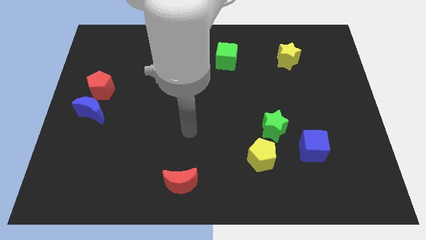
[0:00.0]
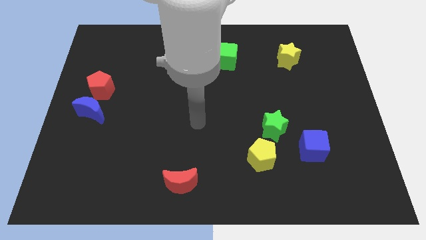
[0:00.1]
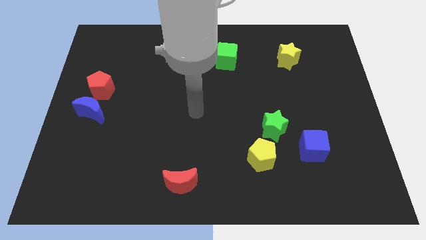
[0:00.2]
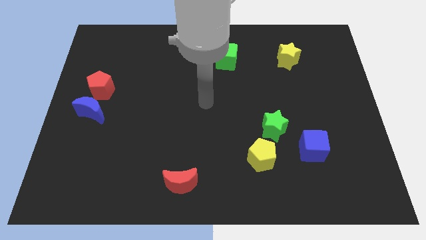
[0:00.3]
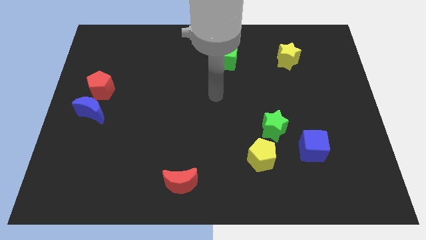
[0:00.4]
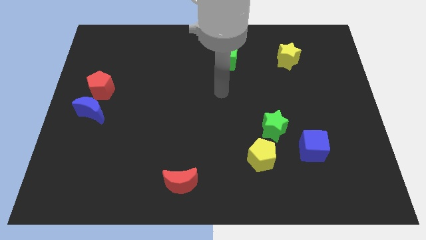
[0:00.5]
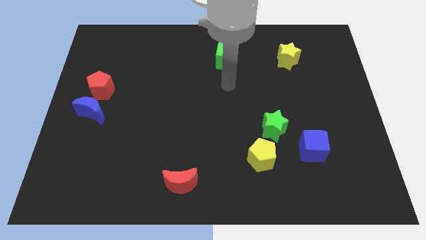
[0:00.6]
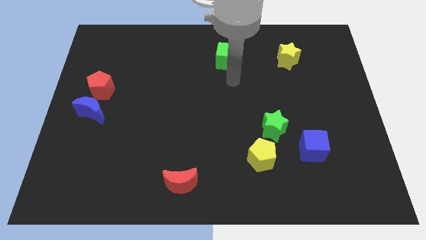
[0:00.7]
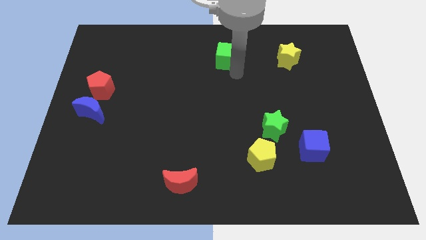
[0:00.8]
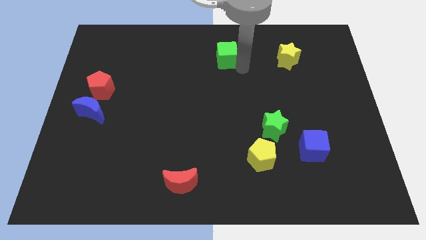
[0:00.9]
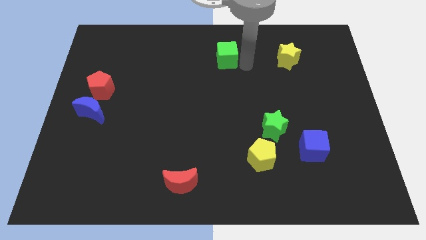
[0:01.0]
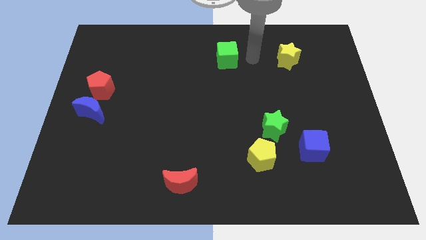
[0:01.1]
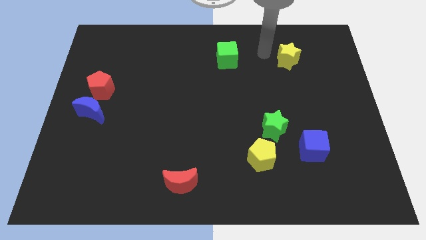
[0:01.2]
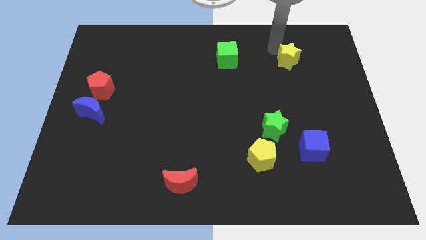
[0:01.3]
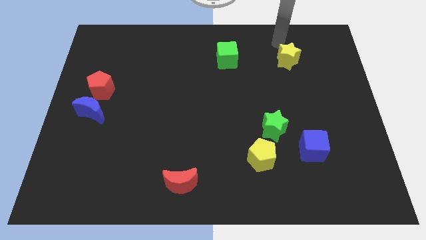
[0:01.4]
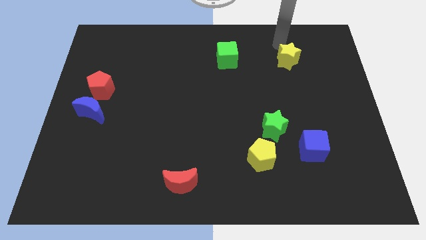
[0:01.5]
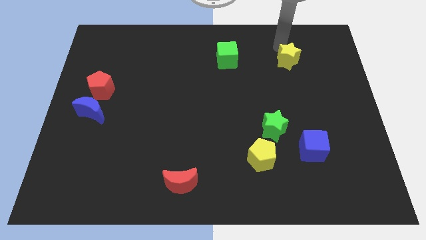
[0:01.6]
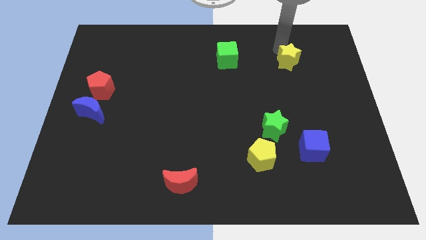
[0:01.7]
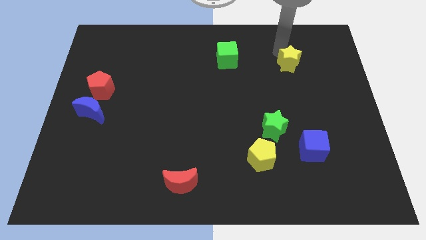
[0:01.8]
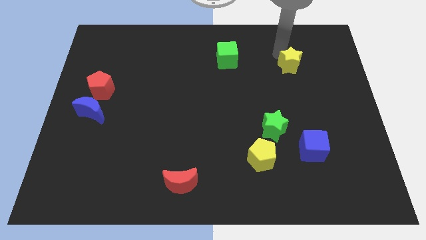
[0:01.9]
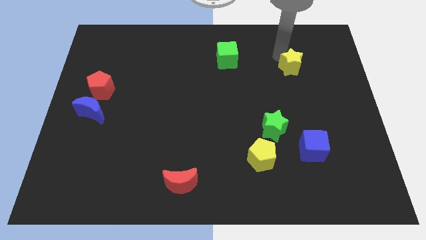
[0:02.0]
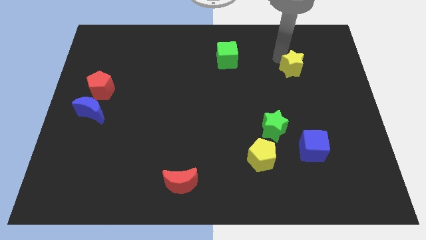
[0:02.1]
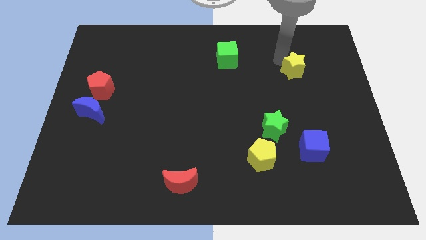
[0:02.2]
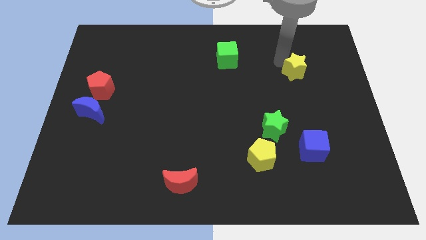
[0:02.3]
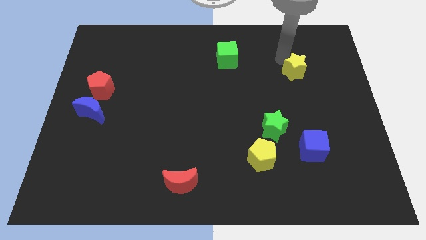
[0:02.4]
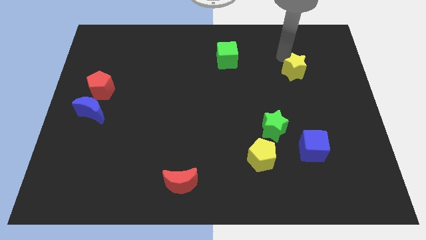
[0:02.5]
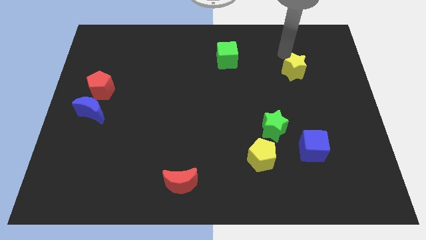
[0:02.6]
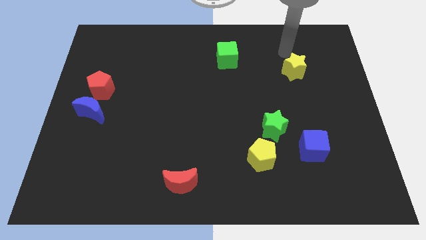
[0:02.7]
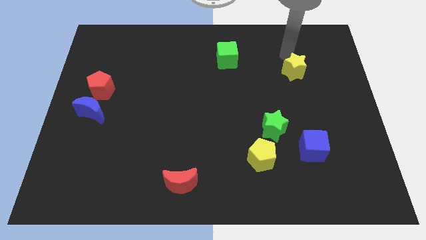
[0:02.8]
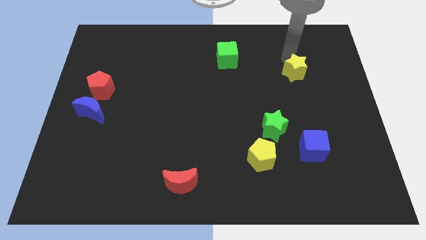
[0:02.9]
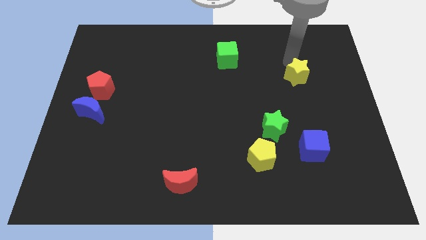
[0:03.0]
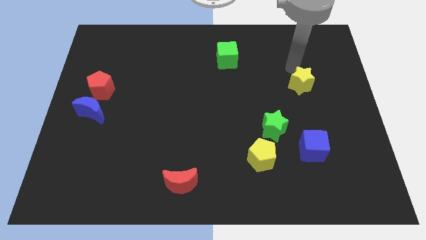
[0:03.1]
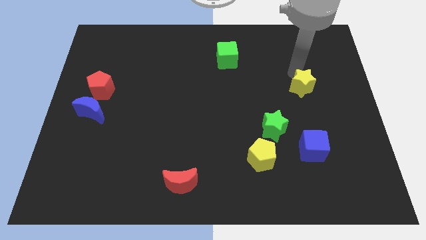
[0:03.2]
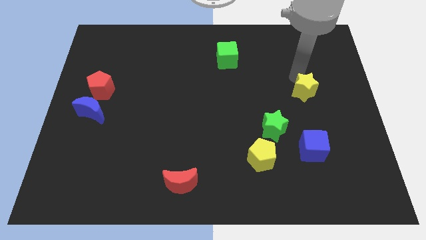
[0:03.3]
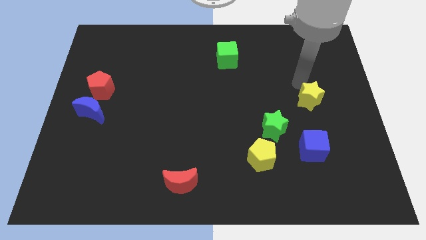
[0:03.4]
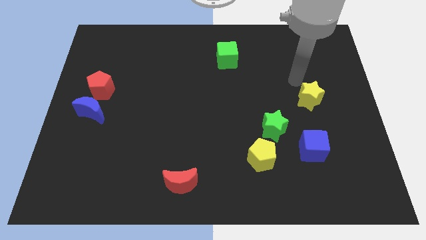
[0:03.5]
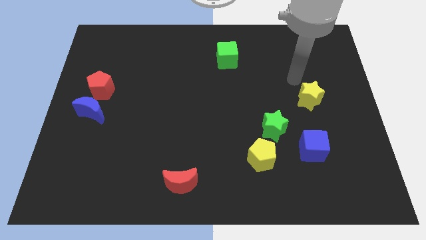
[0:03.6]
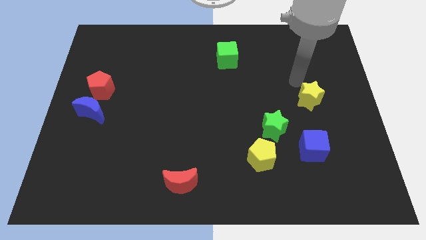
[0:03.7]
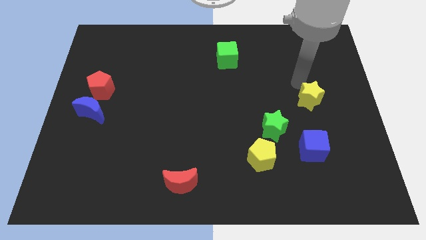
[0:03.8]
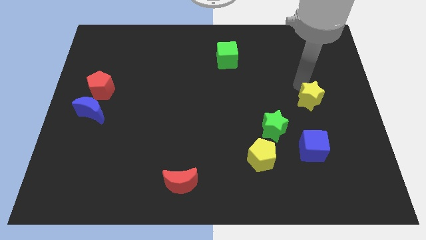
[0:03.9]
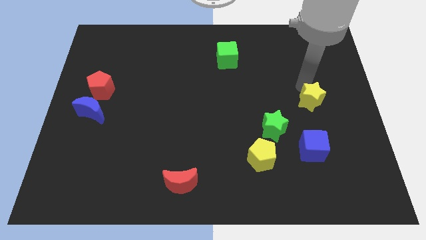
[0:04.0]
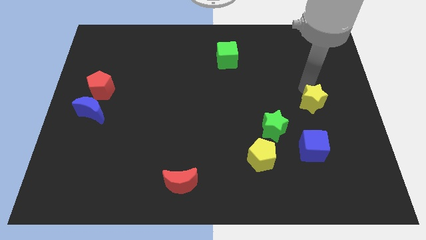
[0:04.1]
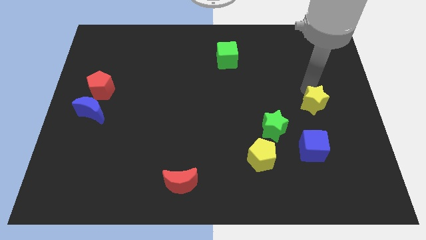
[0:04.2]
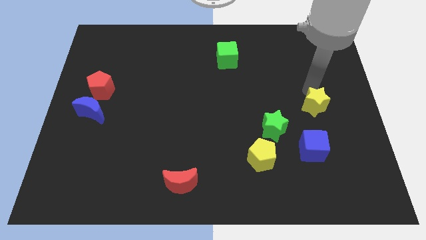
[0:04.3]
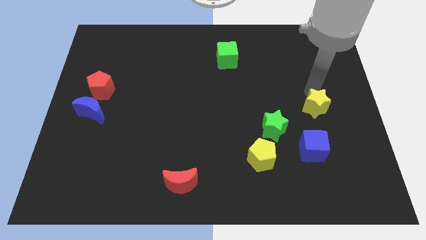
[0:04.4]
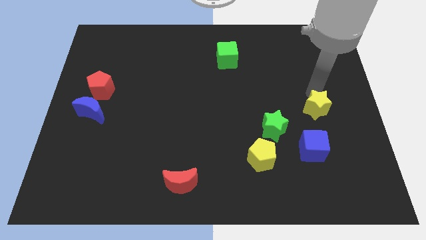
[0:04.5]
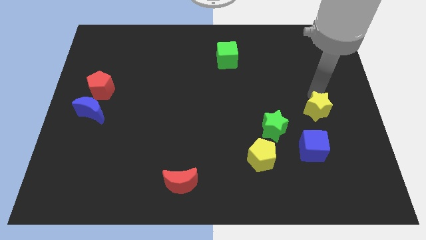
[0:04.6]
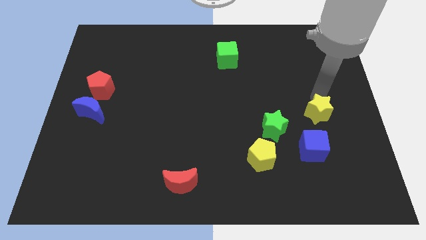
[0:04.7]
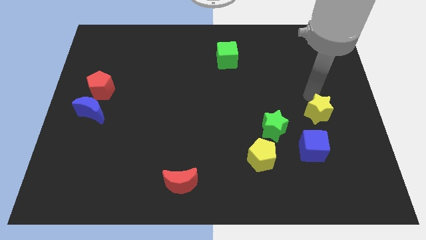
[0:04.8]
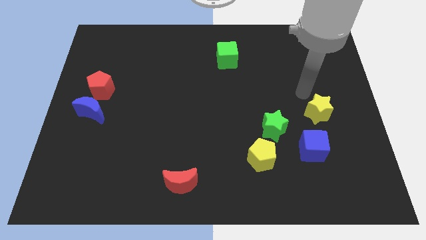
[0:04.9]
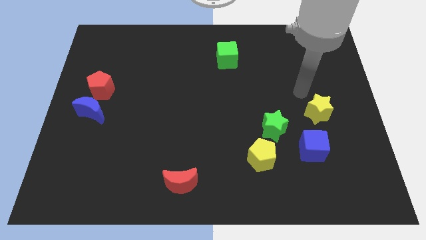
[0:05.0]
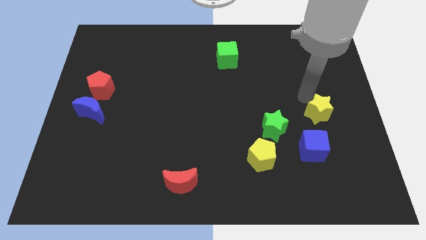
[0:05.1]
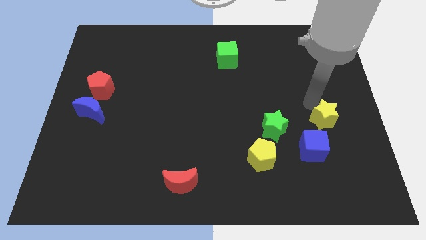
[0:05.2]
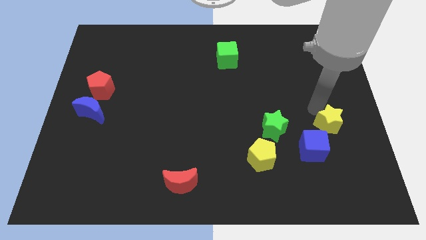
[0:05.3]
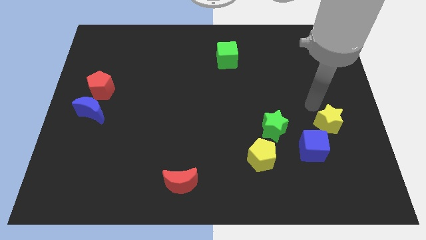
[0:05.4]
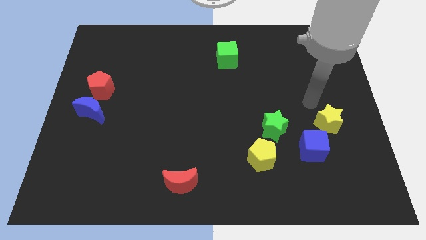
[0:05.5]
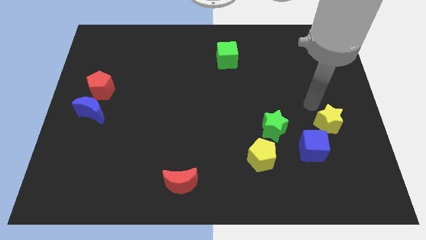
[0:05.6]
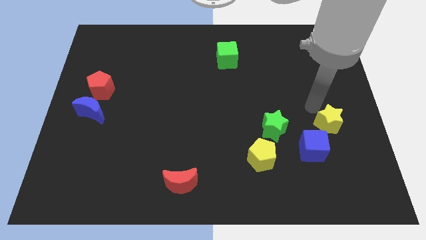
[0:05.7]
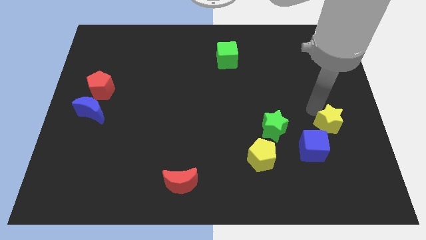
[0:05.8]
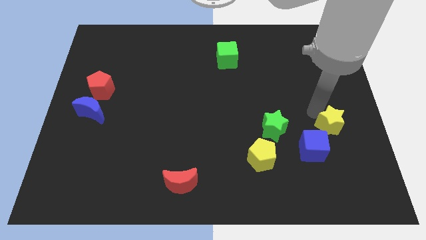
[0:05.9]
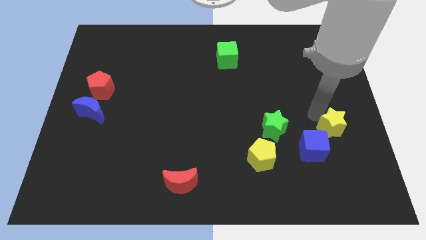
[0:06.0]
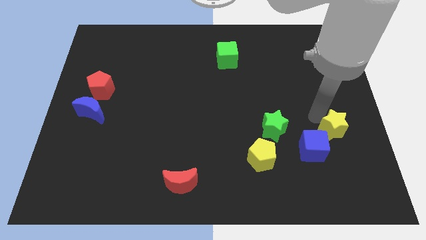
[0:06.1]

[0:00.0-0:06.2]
slide the yellow star downwards

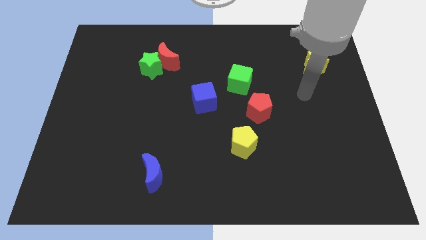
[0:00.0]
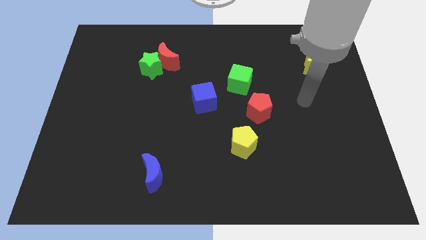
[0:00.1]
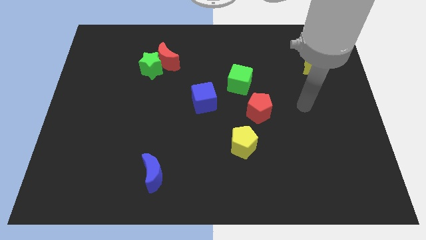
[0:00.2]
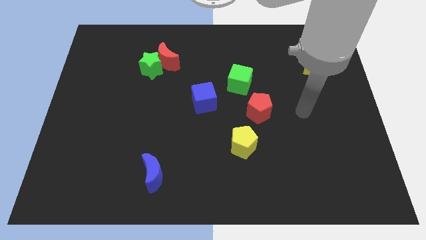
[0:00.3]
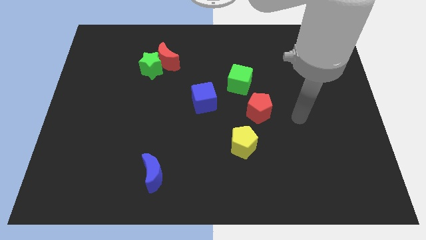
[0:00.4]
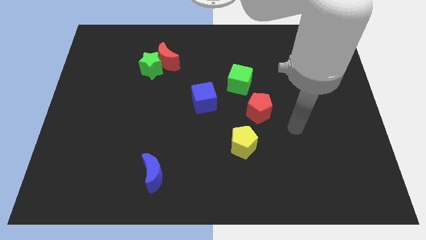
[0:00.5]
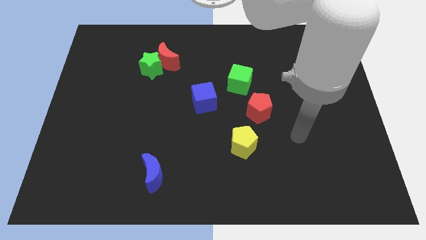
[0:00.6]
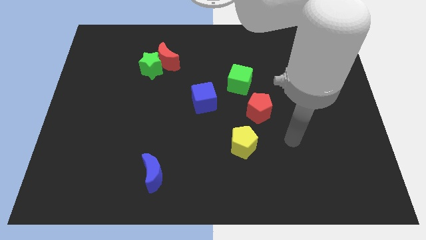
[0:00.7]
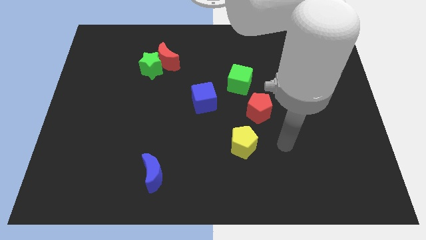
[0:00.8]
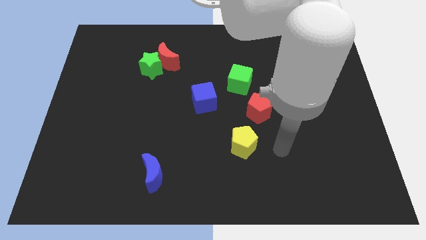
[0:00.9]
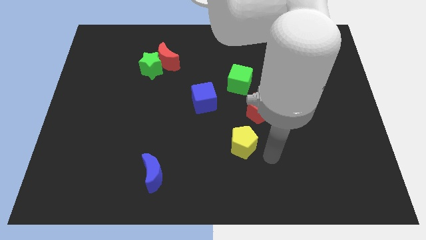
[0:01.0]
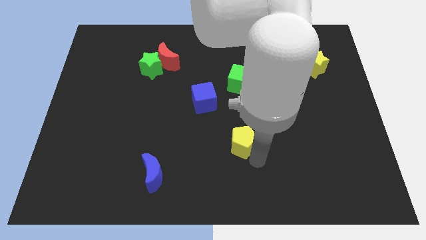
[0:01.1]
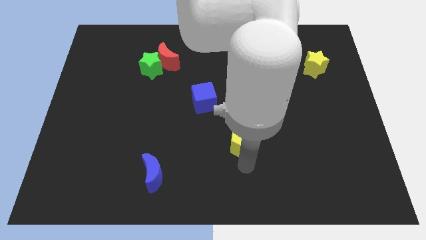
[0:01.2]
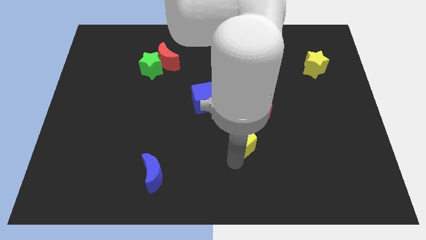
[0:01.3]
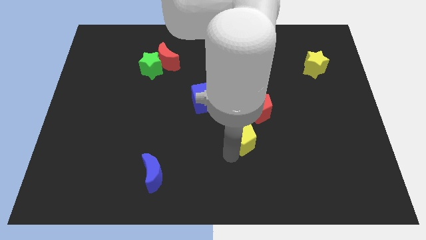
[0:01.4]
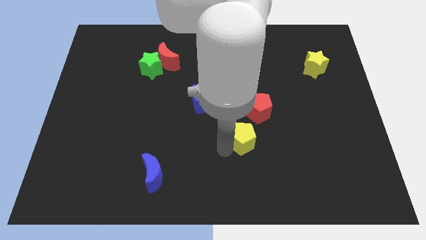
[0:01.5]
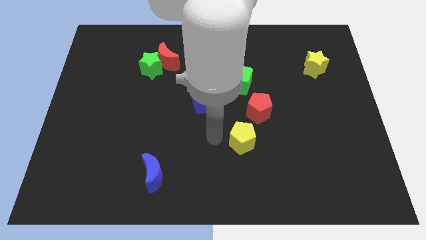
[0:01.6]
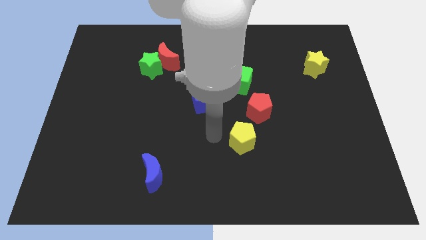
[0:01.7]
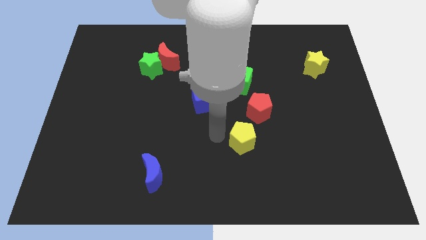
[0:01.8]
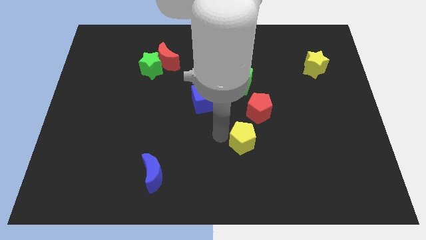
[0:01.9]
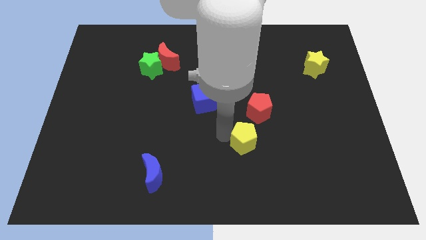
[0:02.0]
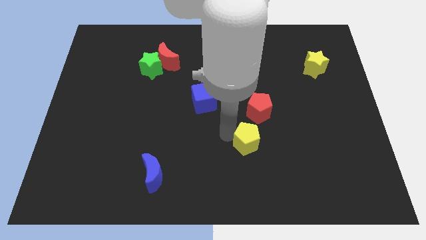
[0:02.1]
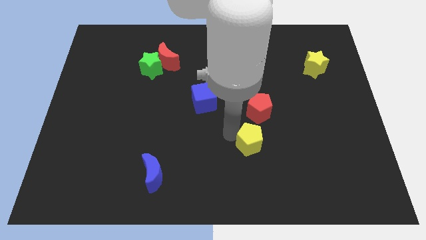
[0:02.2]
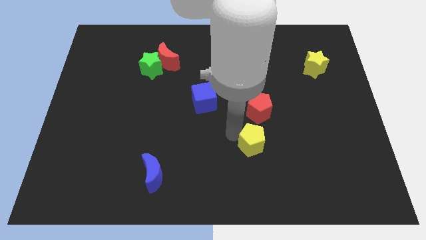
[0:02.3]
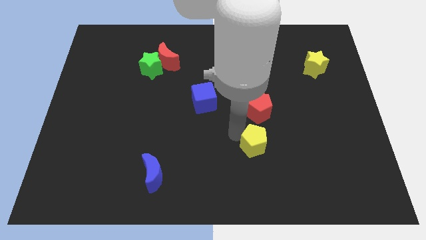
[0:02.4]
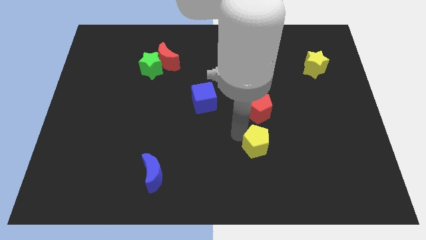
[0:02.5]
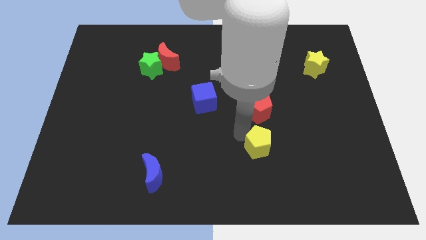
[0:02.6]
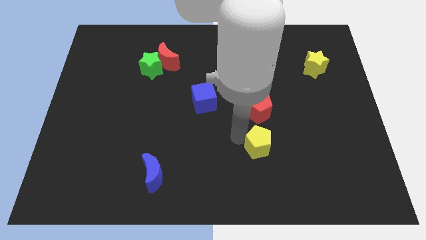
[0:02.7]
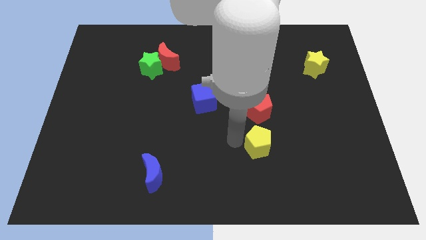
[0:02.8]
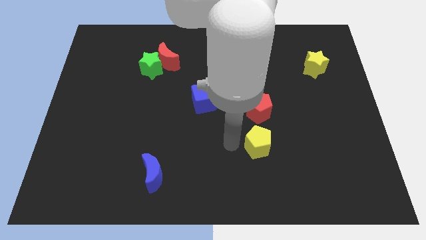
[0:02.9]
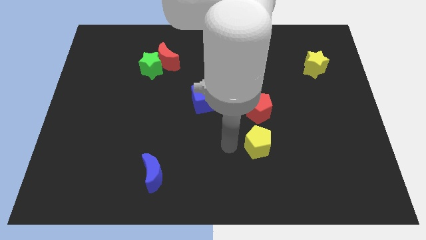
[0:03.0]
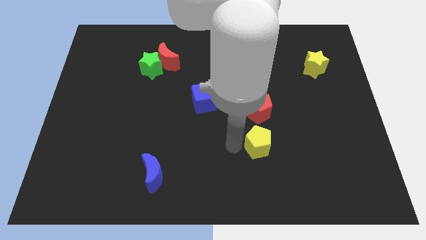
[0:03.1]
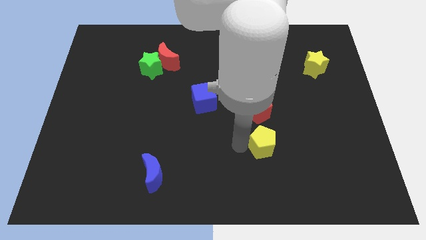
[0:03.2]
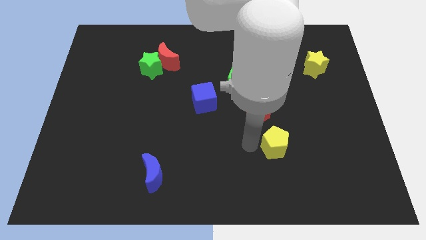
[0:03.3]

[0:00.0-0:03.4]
move the yellow pentagon a little bit right
